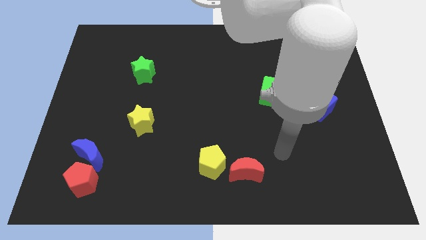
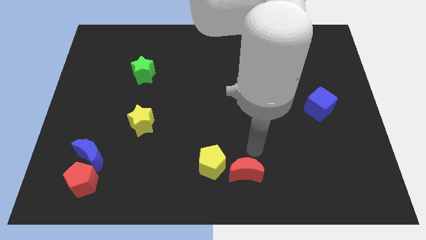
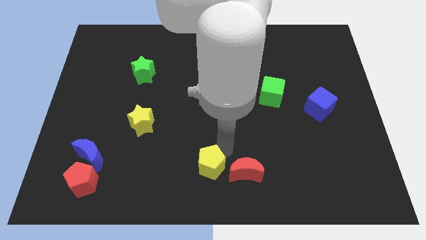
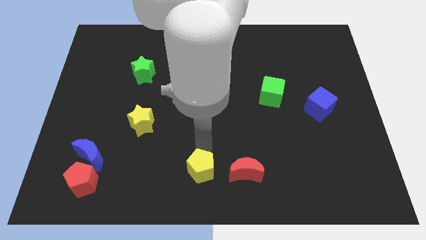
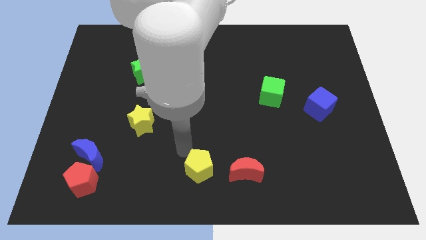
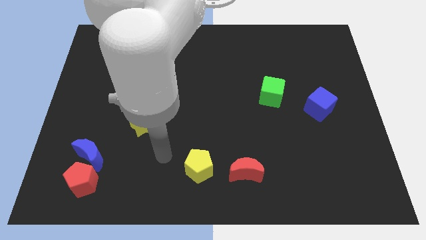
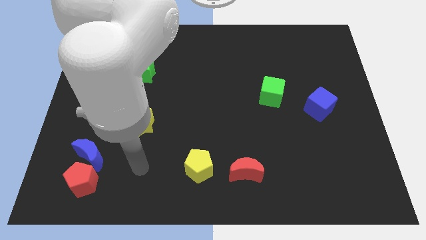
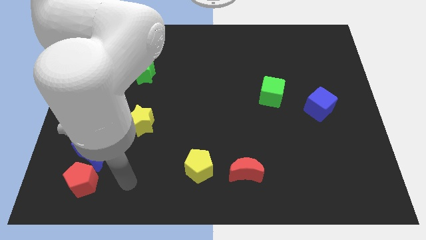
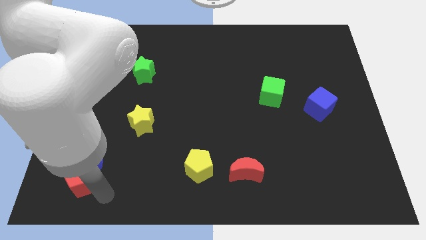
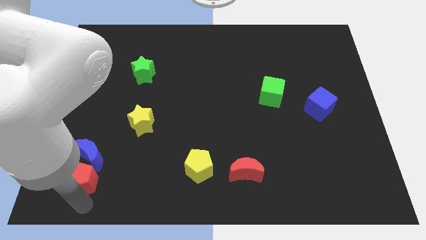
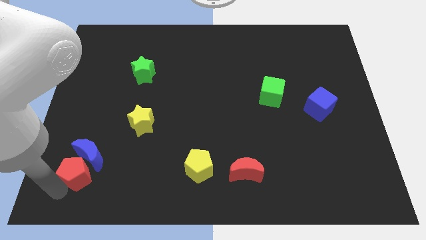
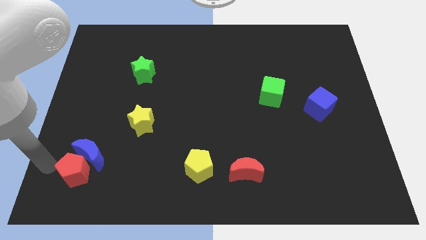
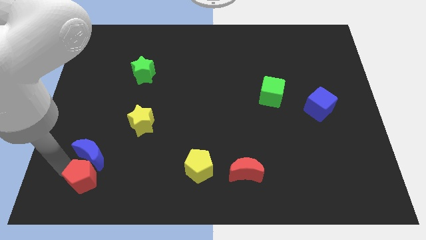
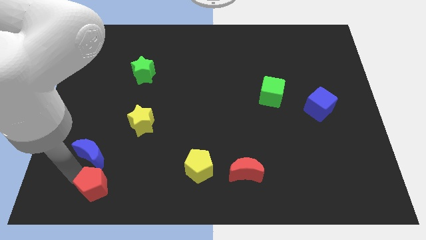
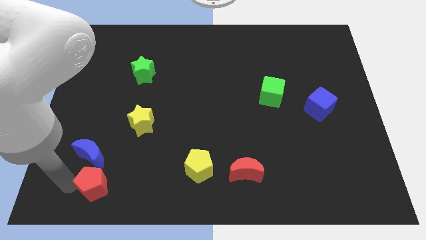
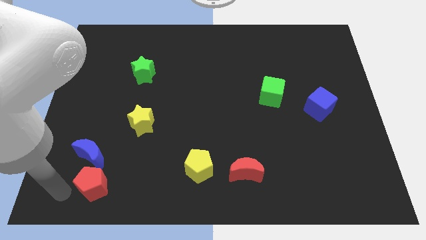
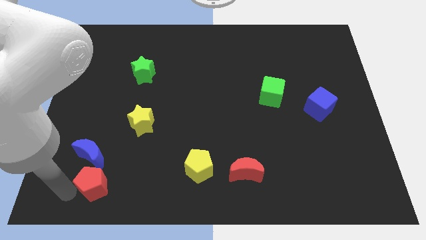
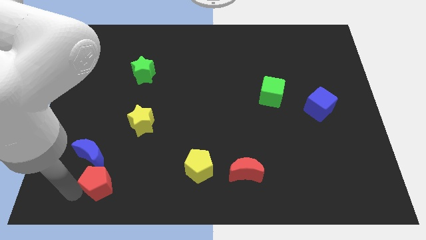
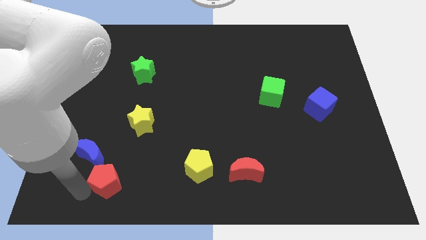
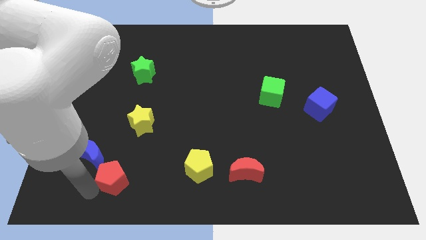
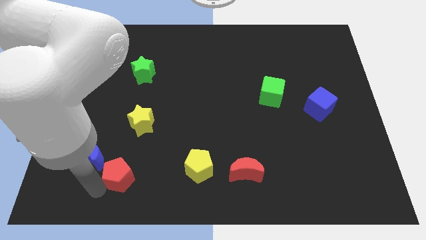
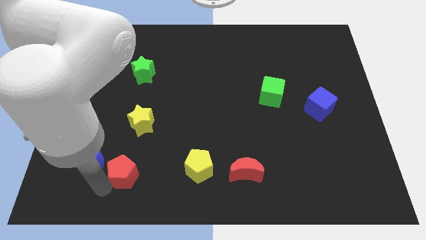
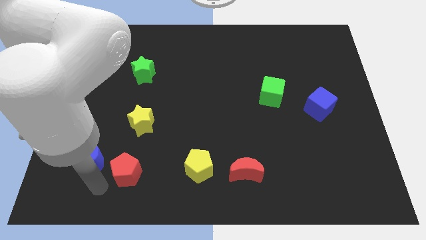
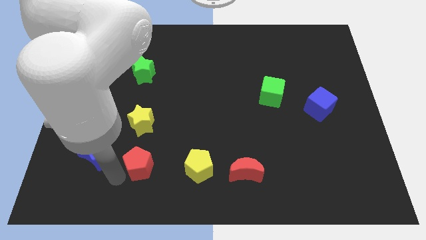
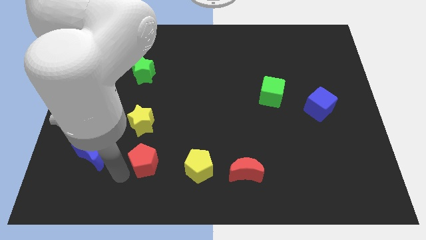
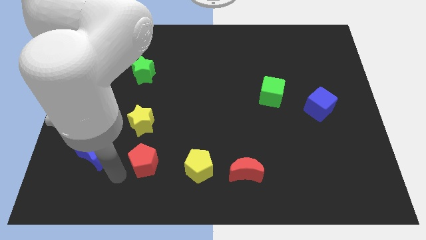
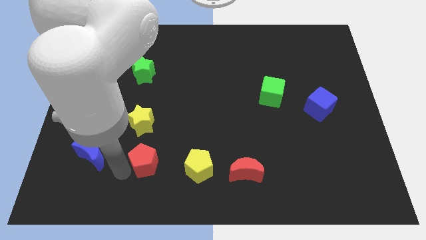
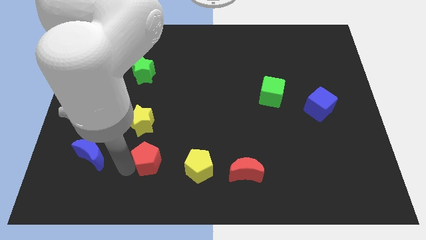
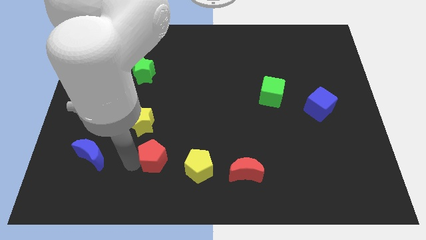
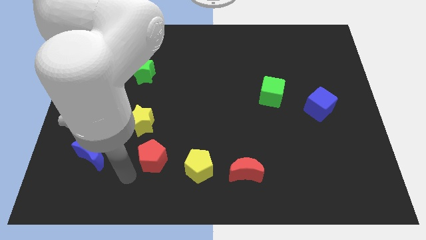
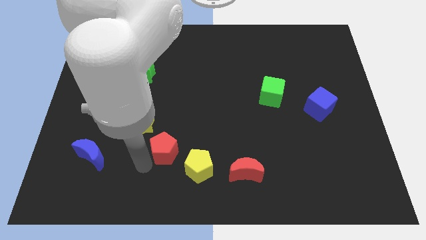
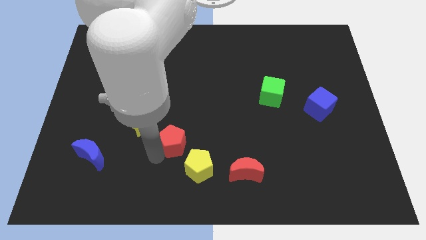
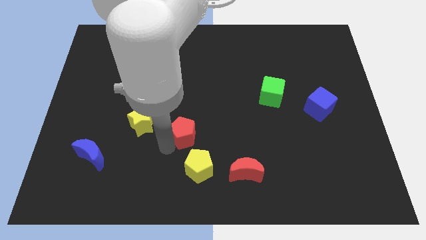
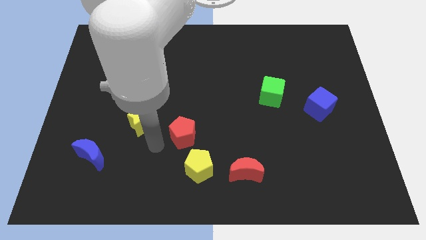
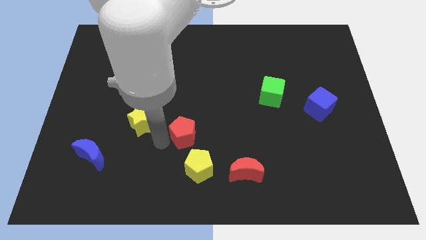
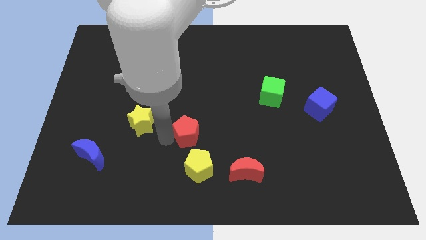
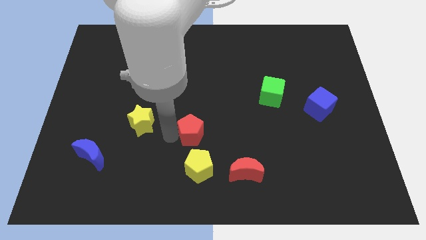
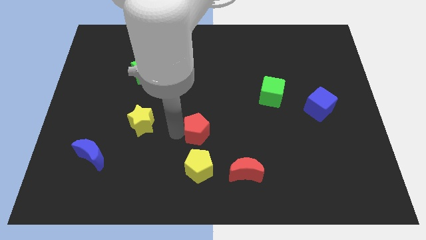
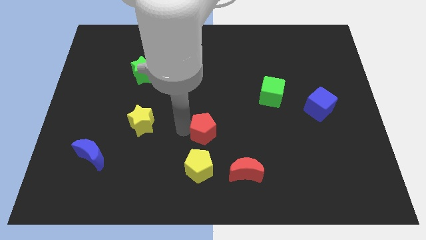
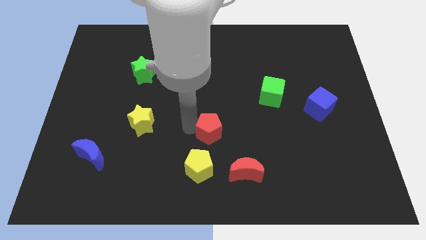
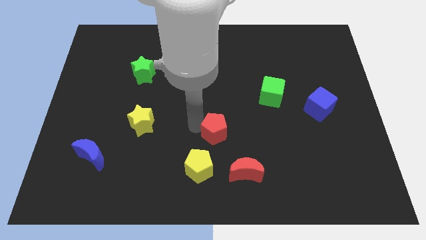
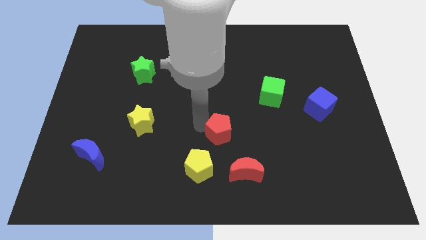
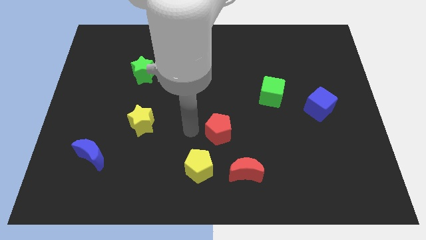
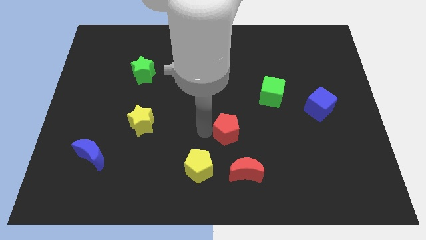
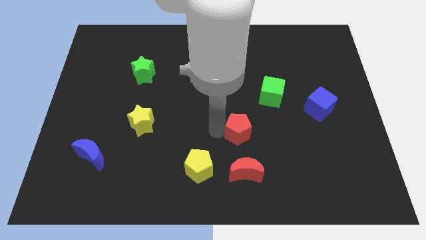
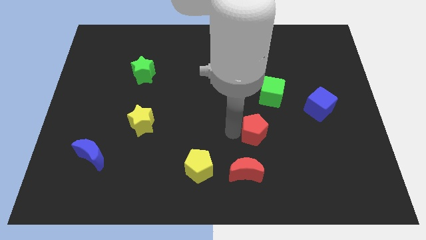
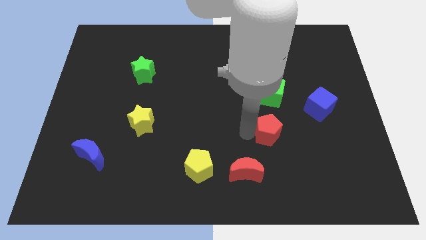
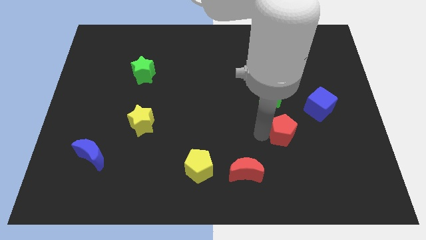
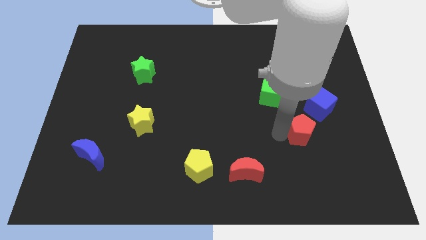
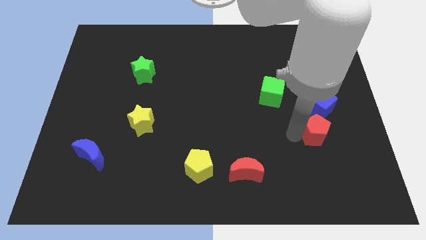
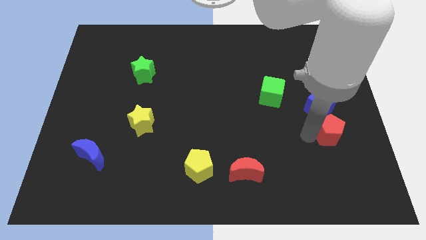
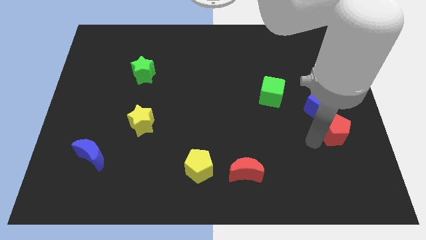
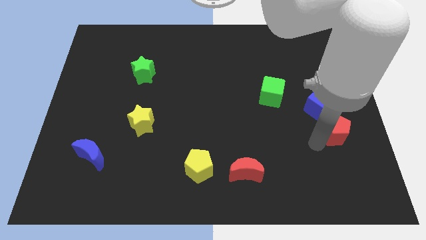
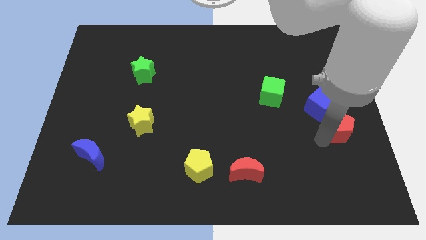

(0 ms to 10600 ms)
push the red pentagon to the center right

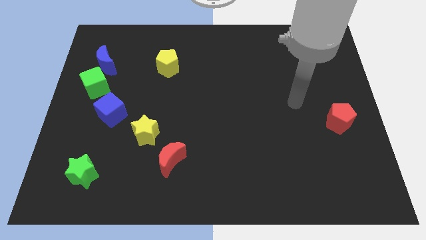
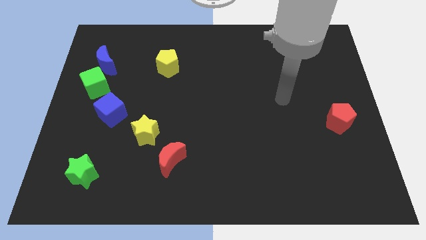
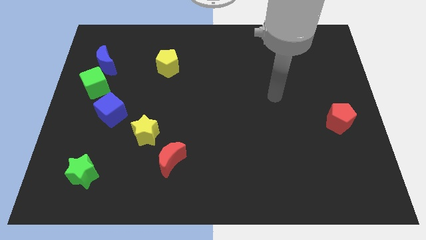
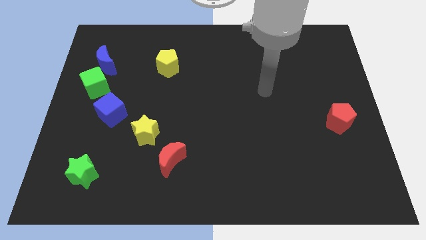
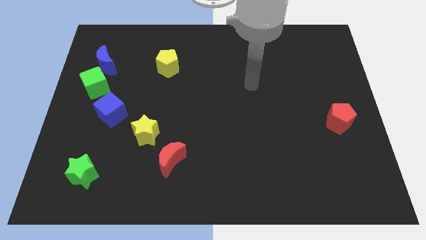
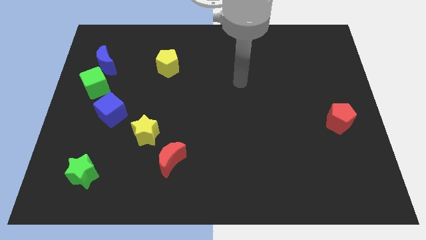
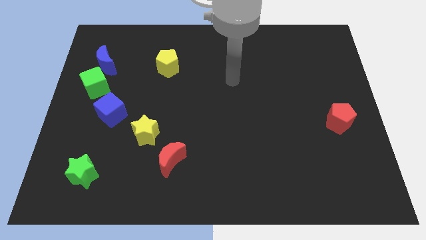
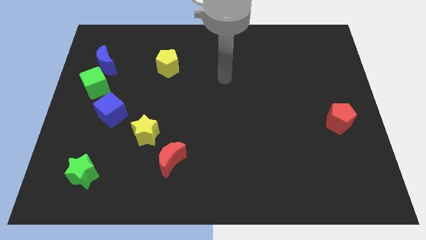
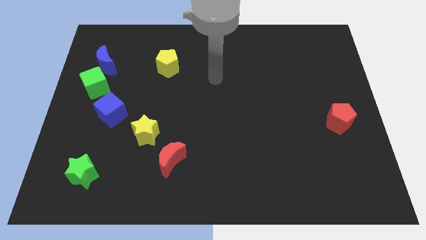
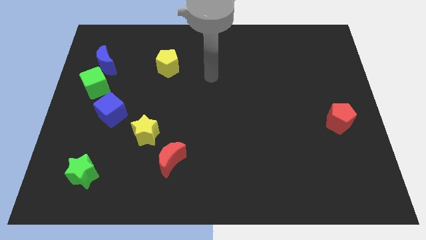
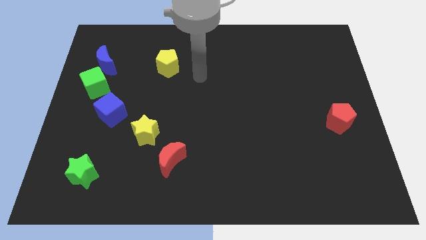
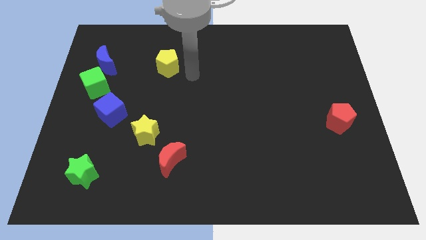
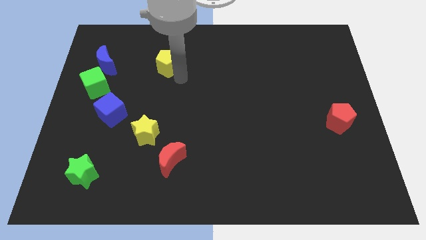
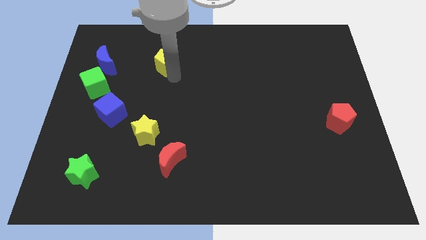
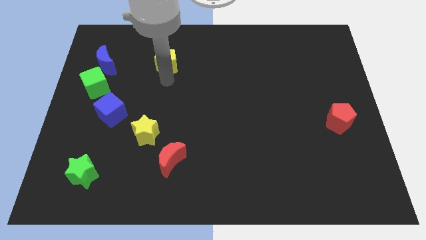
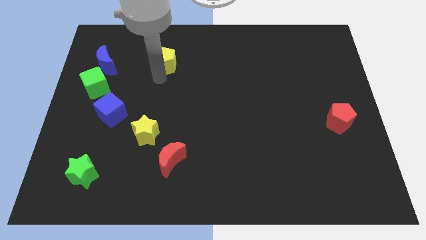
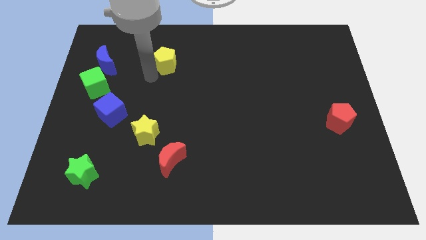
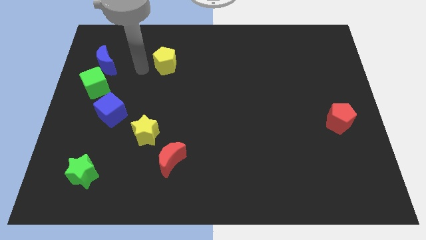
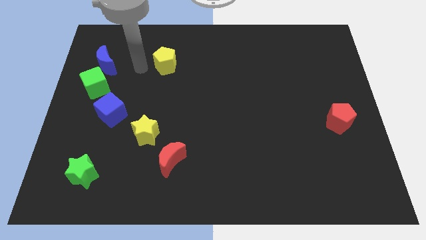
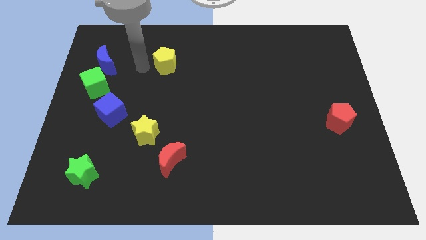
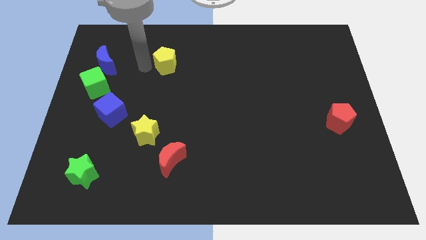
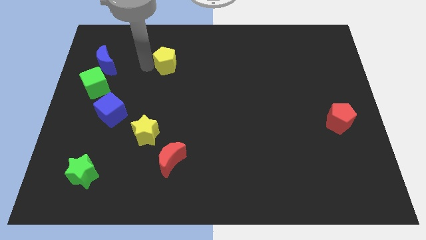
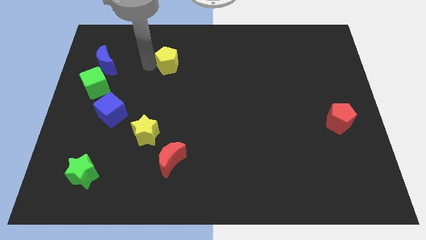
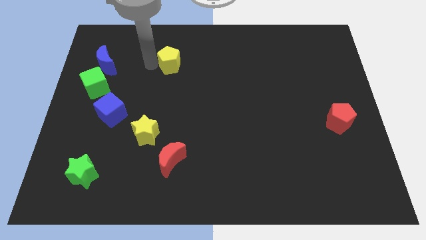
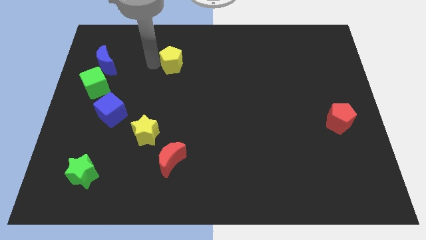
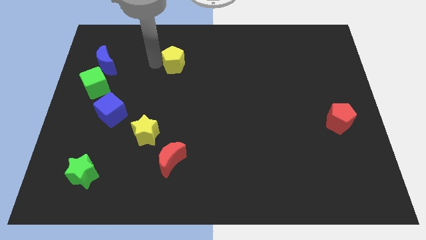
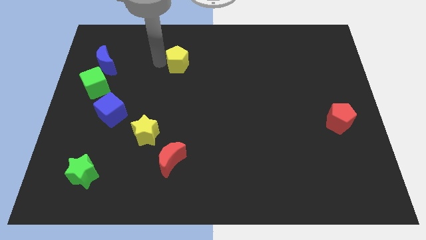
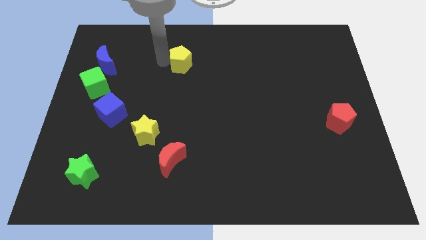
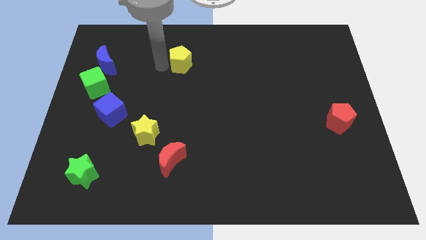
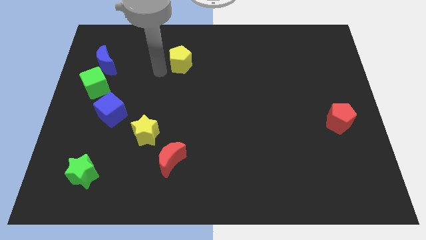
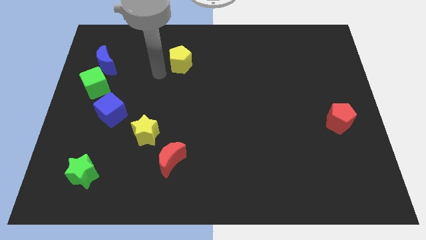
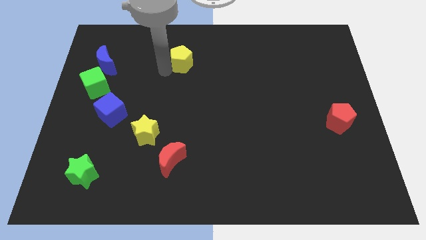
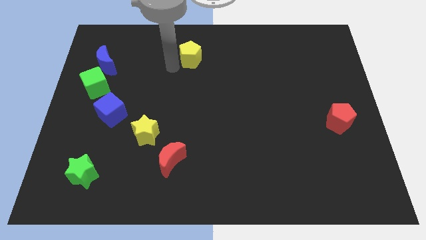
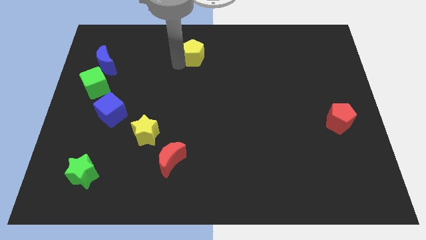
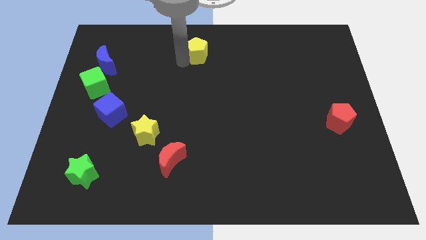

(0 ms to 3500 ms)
put the yellow pentagon to the towards your base
